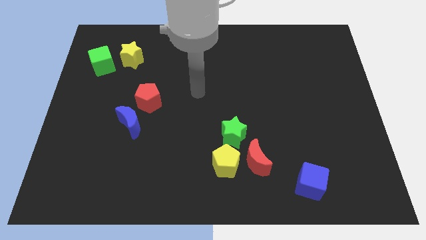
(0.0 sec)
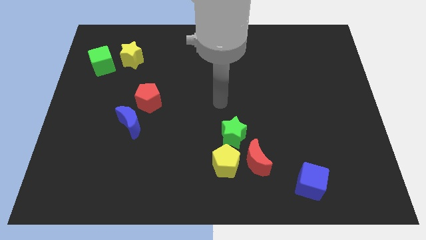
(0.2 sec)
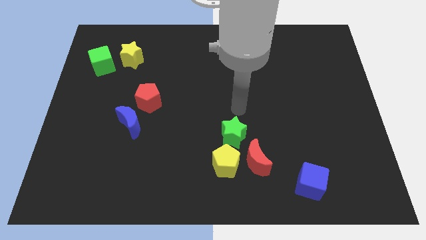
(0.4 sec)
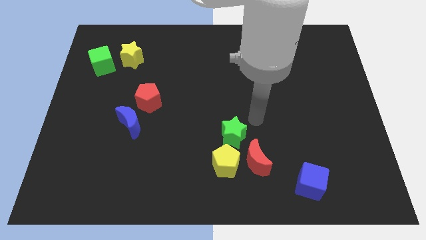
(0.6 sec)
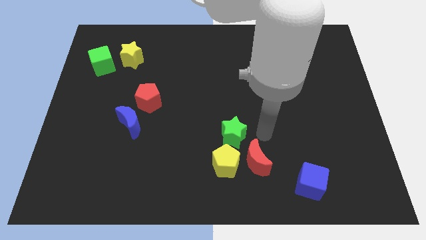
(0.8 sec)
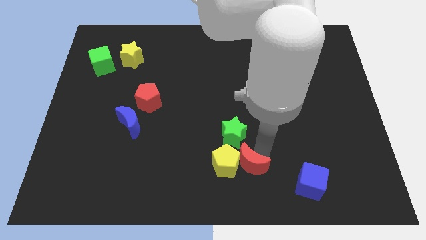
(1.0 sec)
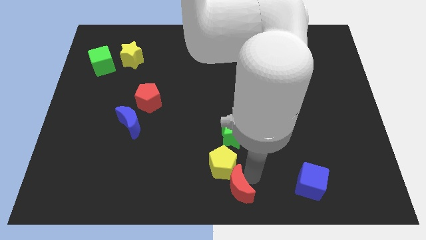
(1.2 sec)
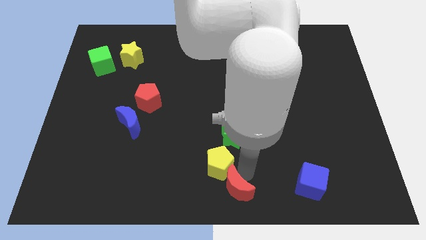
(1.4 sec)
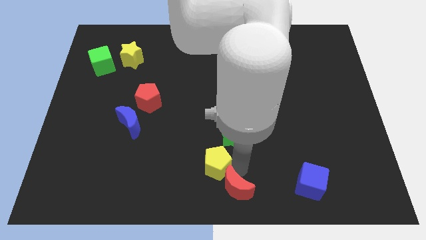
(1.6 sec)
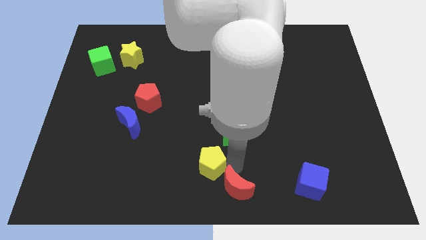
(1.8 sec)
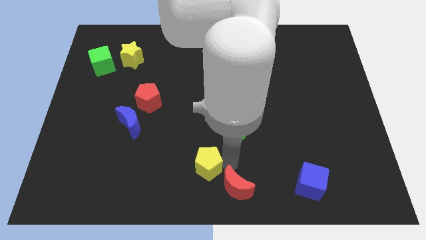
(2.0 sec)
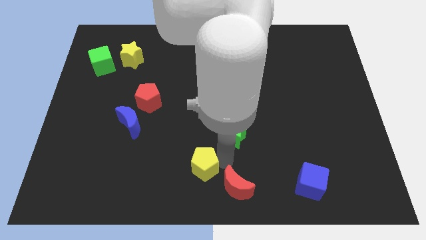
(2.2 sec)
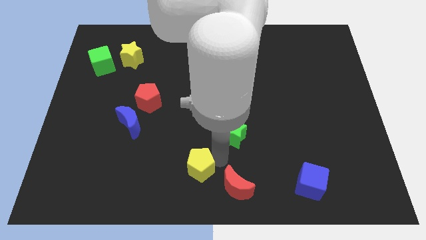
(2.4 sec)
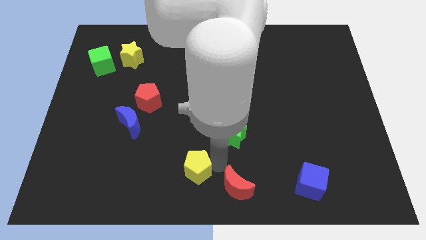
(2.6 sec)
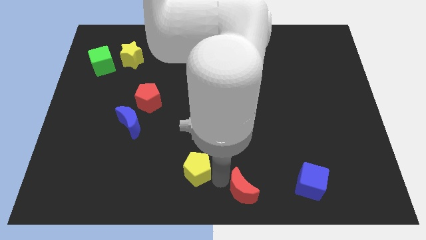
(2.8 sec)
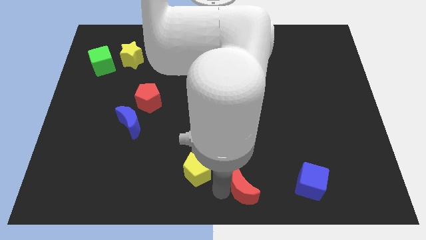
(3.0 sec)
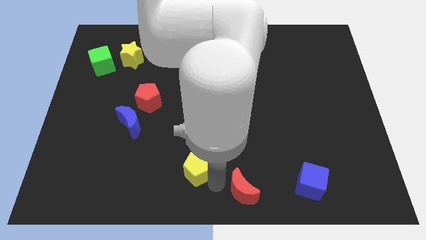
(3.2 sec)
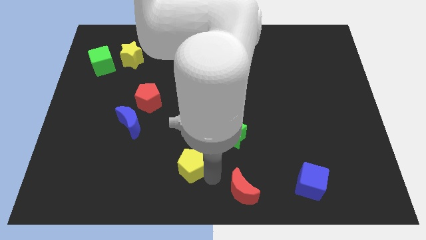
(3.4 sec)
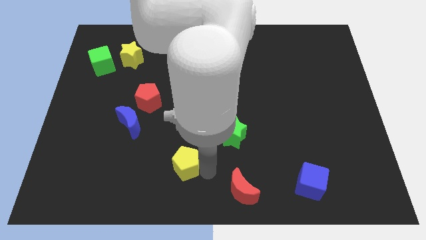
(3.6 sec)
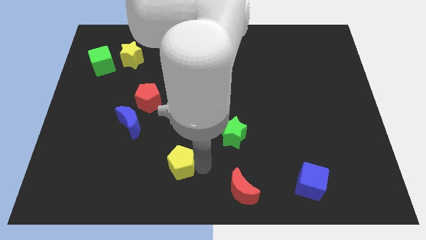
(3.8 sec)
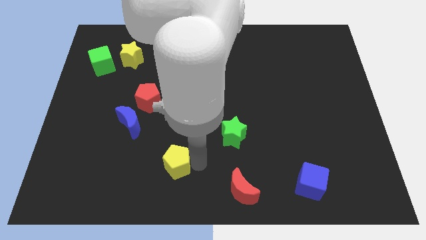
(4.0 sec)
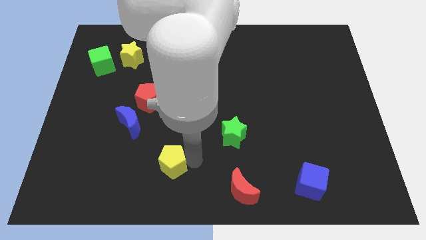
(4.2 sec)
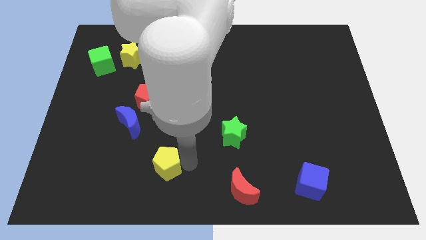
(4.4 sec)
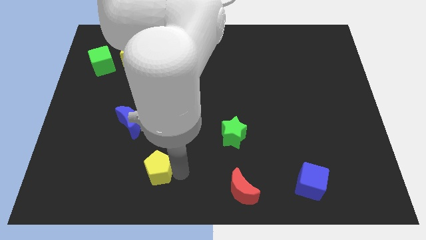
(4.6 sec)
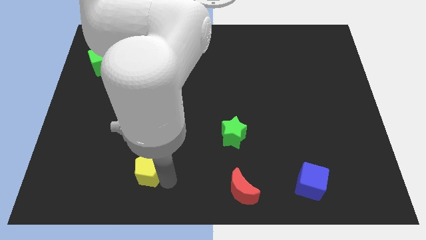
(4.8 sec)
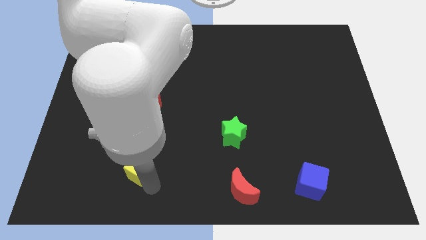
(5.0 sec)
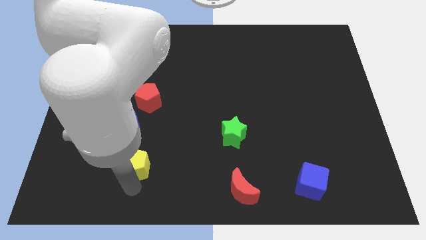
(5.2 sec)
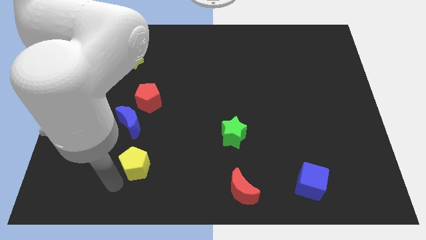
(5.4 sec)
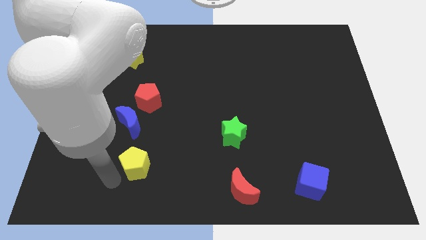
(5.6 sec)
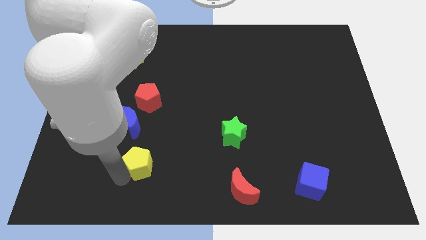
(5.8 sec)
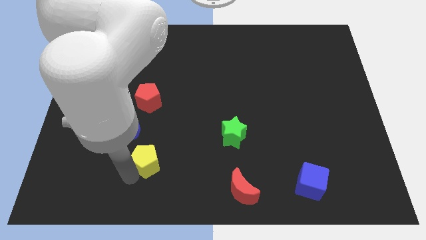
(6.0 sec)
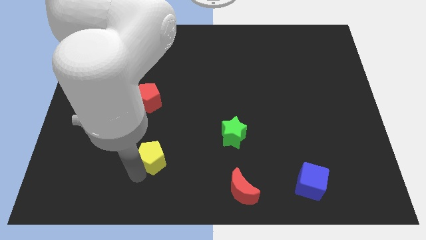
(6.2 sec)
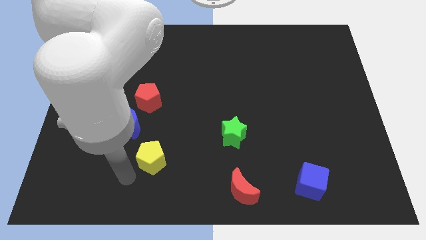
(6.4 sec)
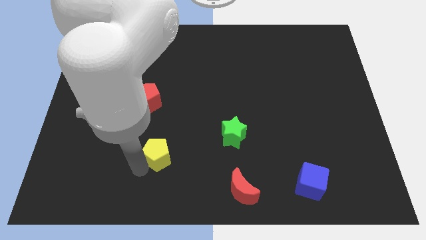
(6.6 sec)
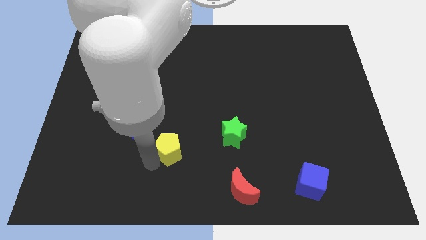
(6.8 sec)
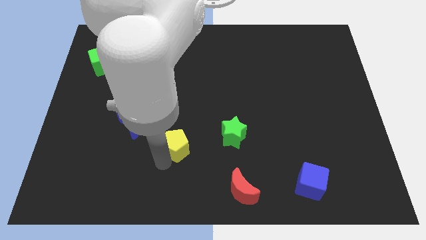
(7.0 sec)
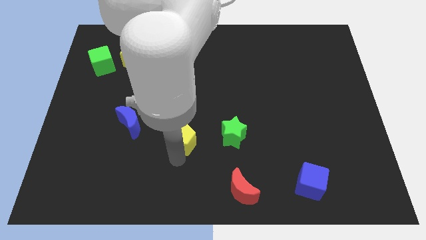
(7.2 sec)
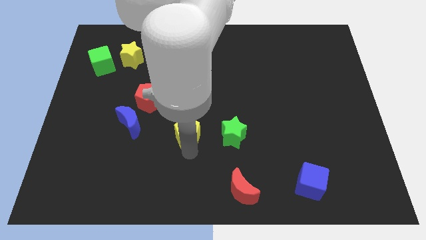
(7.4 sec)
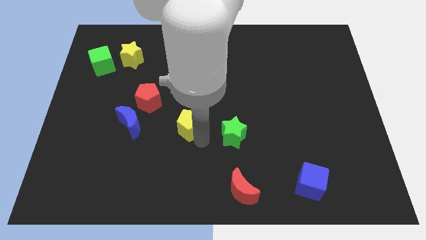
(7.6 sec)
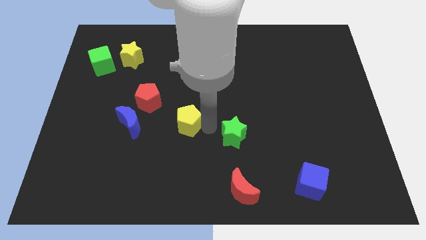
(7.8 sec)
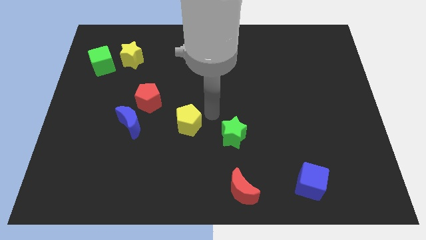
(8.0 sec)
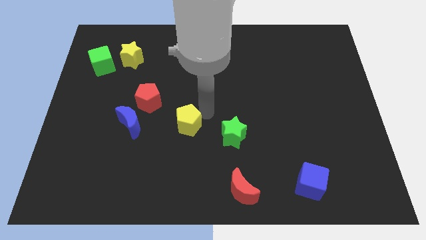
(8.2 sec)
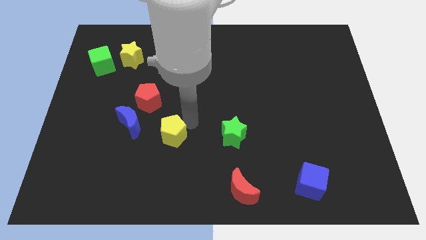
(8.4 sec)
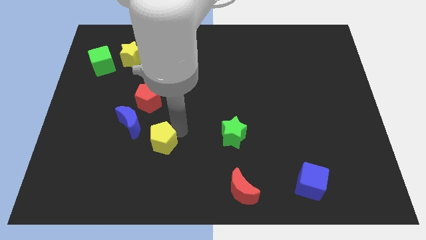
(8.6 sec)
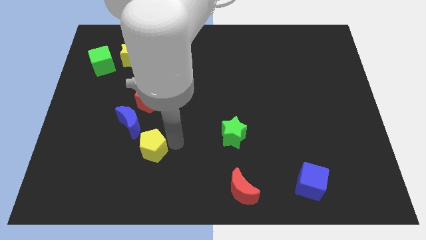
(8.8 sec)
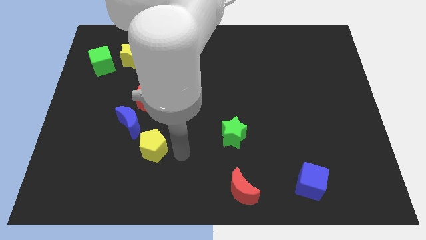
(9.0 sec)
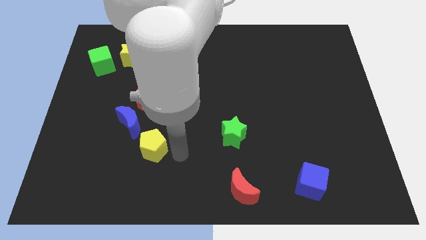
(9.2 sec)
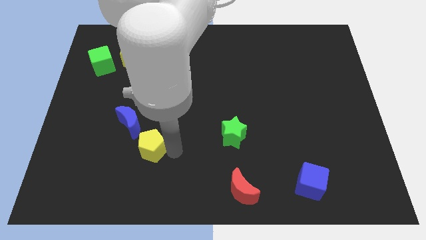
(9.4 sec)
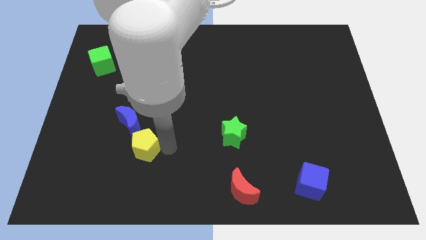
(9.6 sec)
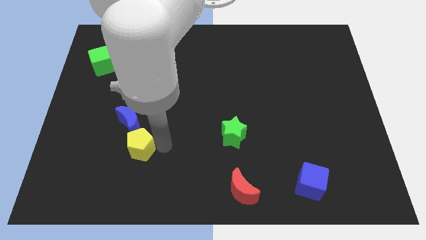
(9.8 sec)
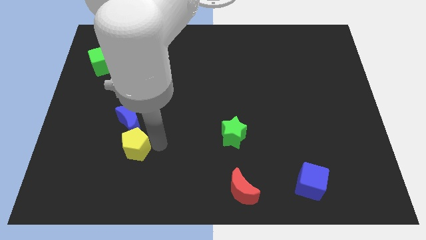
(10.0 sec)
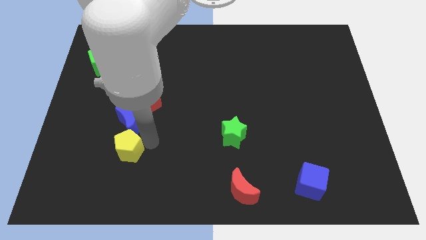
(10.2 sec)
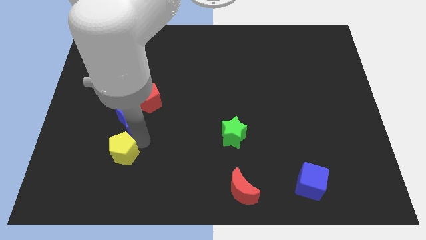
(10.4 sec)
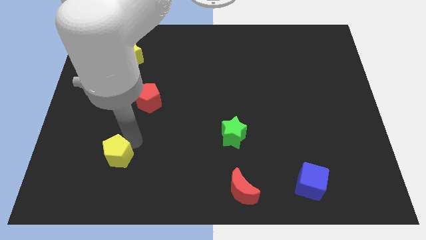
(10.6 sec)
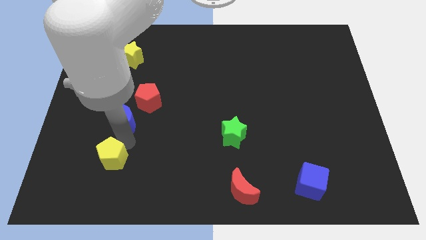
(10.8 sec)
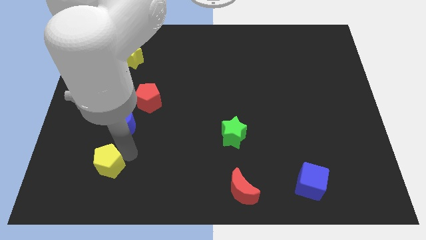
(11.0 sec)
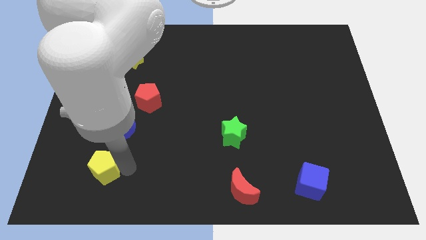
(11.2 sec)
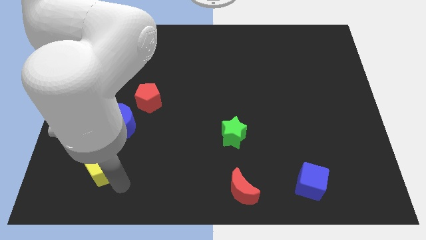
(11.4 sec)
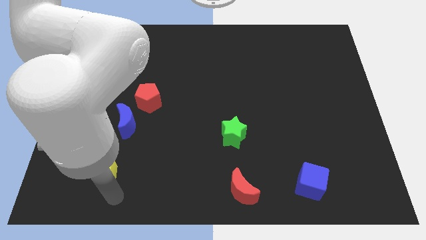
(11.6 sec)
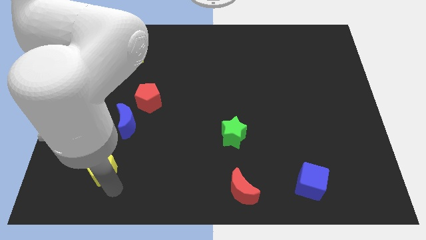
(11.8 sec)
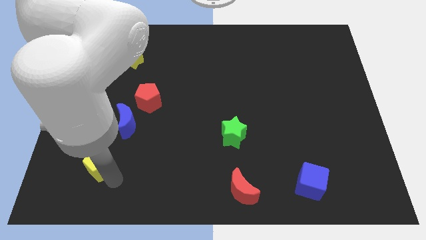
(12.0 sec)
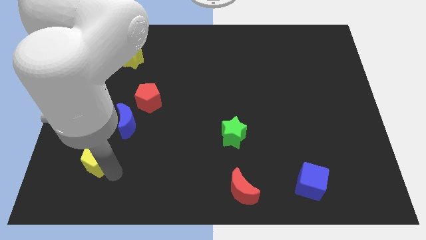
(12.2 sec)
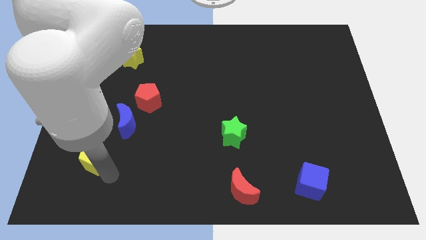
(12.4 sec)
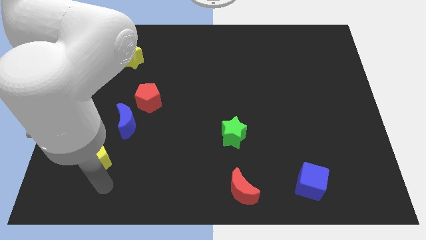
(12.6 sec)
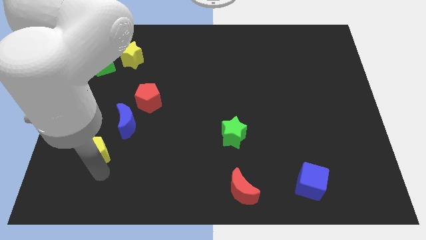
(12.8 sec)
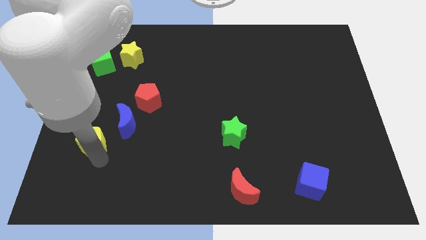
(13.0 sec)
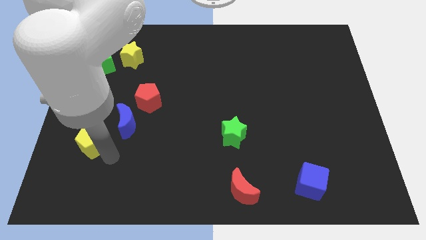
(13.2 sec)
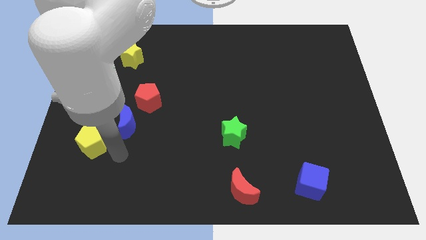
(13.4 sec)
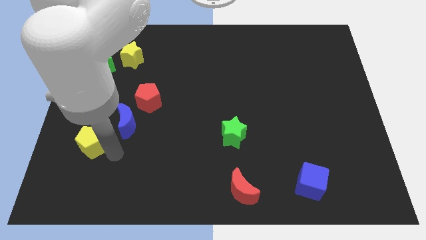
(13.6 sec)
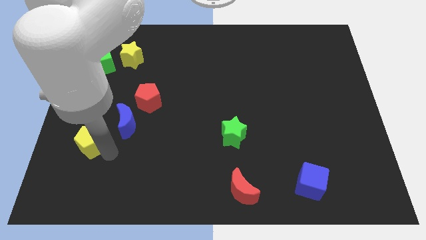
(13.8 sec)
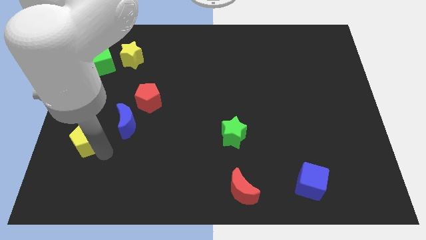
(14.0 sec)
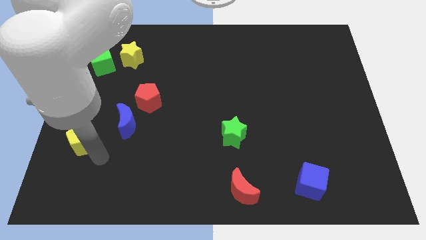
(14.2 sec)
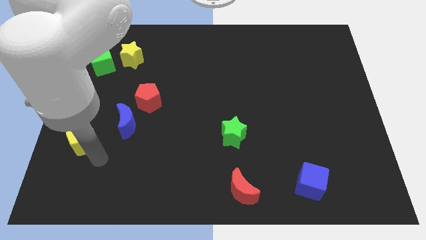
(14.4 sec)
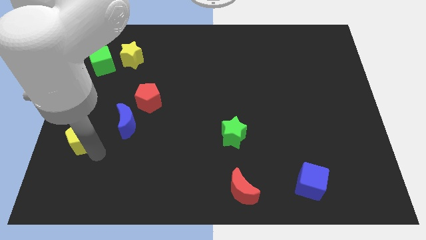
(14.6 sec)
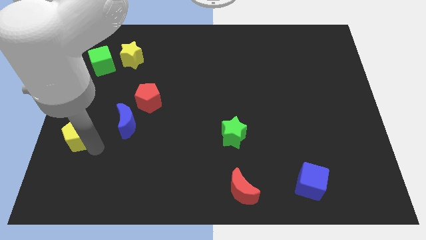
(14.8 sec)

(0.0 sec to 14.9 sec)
move the yellow pentagon to the left side
